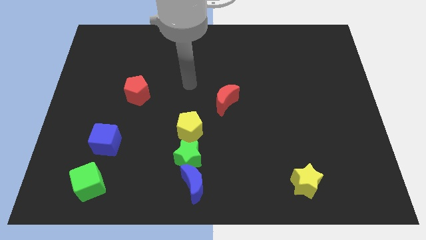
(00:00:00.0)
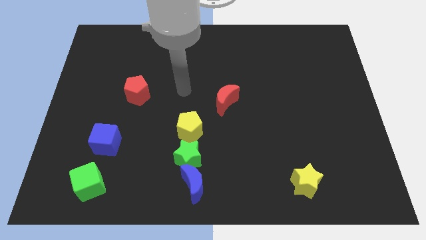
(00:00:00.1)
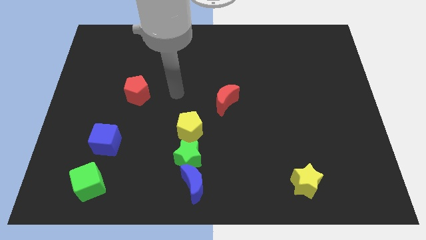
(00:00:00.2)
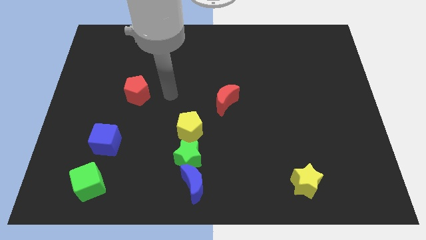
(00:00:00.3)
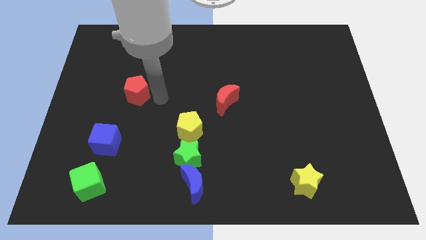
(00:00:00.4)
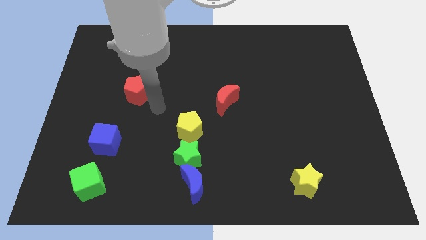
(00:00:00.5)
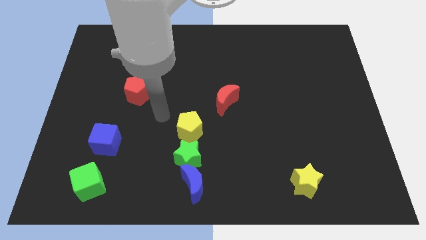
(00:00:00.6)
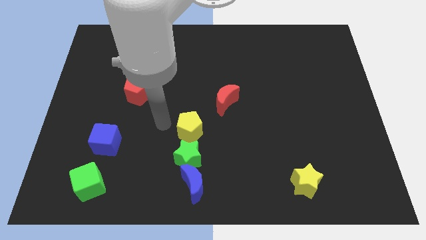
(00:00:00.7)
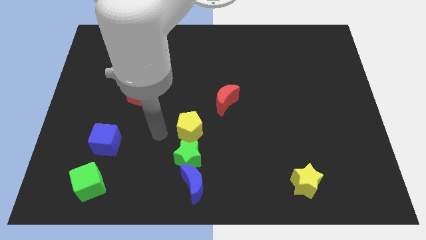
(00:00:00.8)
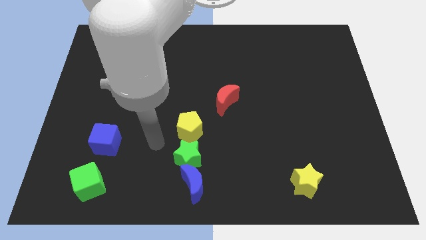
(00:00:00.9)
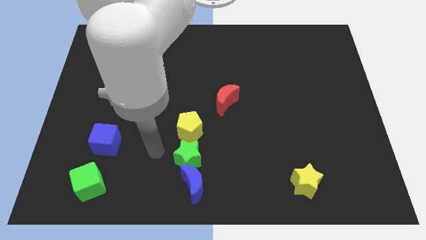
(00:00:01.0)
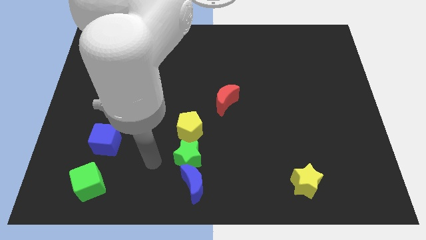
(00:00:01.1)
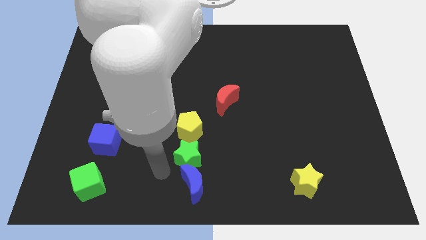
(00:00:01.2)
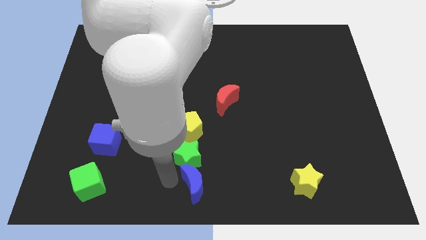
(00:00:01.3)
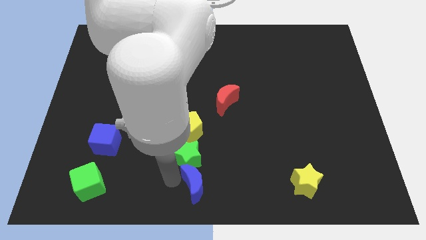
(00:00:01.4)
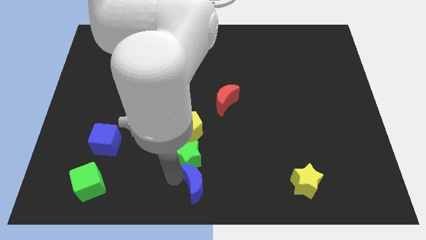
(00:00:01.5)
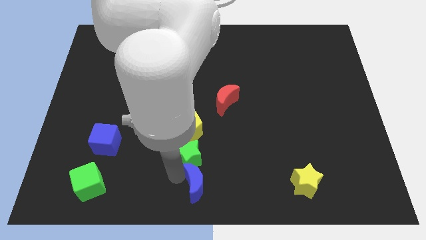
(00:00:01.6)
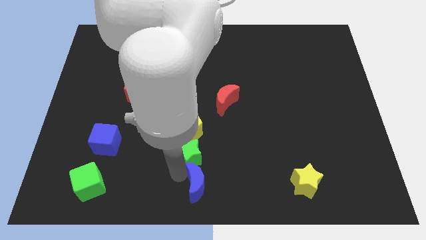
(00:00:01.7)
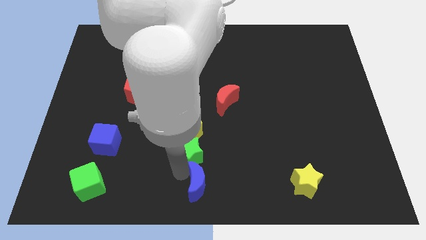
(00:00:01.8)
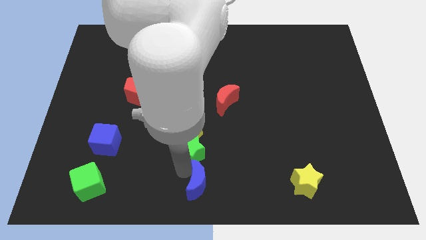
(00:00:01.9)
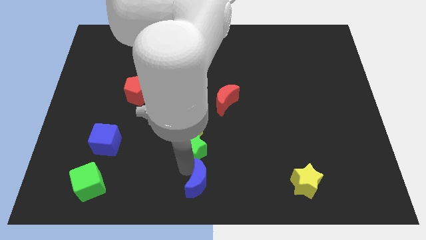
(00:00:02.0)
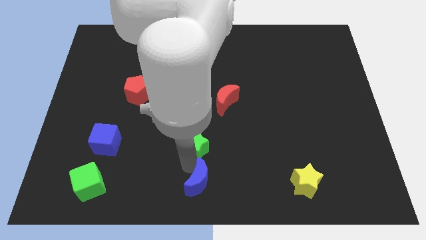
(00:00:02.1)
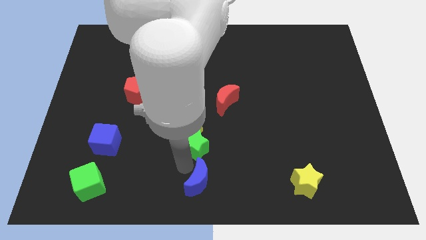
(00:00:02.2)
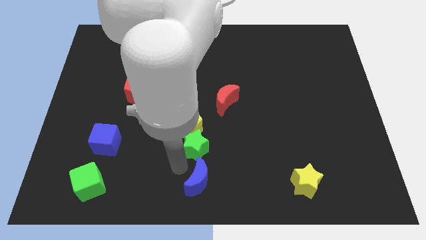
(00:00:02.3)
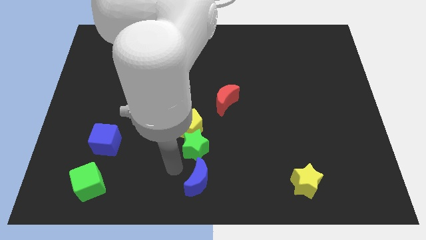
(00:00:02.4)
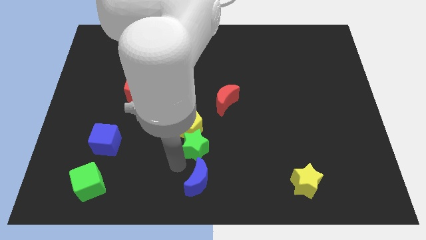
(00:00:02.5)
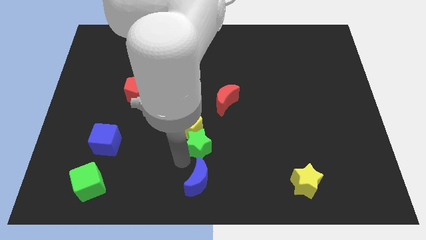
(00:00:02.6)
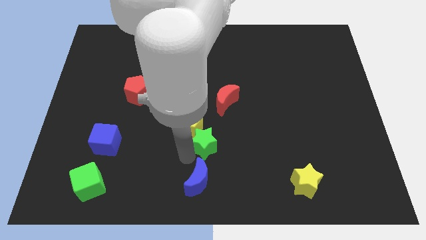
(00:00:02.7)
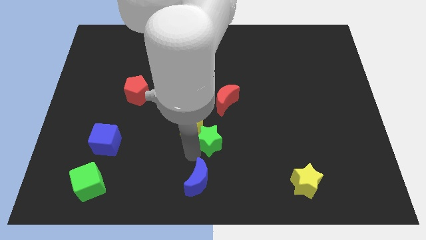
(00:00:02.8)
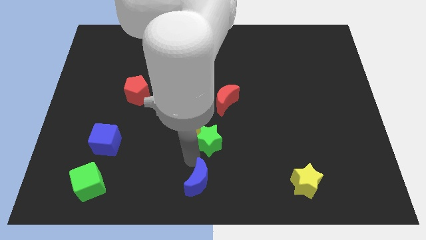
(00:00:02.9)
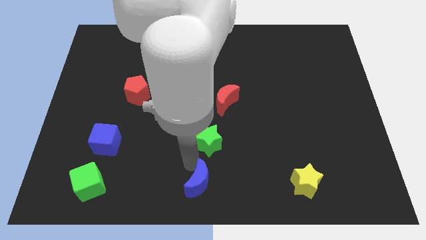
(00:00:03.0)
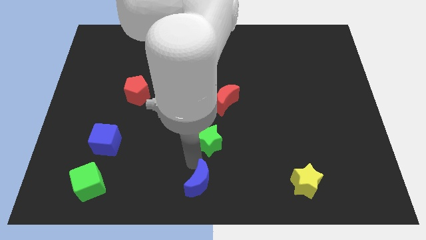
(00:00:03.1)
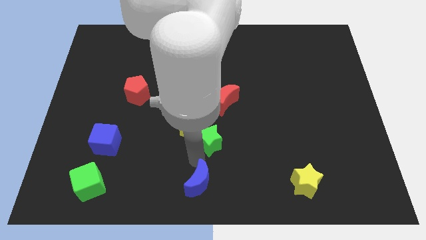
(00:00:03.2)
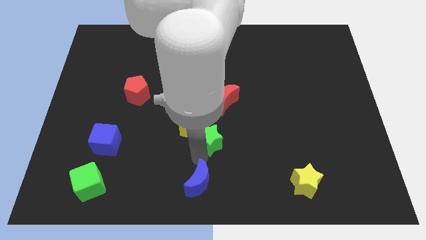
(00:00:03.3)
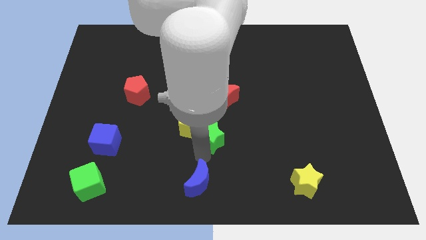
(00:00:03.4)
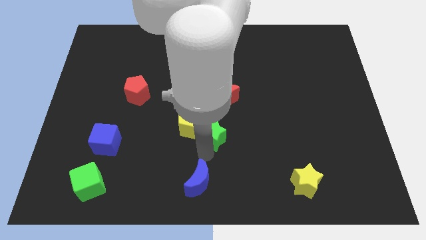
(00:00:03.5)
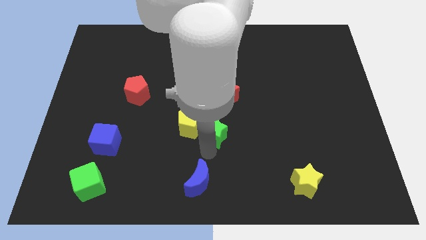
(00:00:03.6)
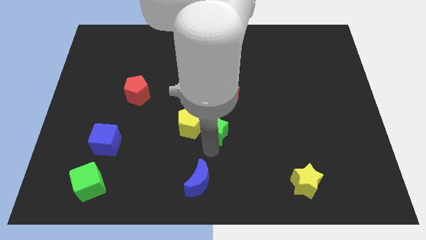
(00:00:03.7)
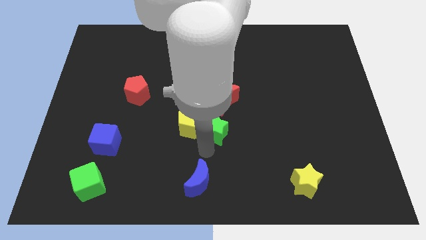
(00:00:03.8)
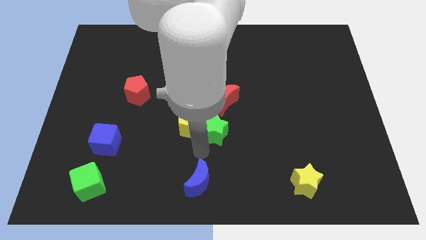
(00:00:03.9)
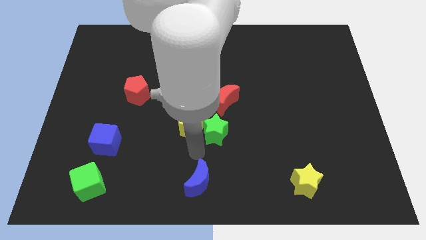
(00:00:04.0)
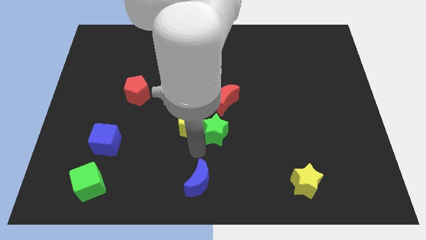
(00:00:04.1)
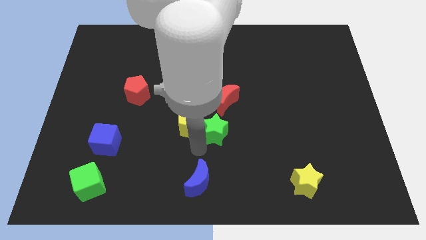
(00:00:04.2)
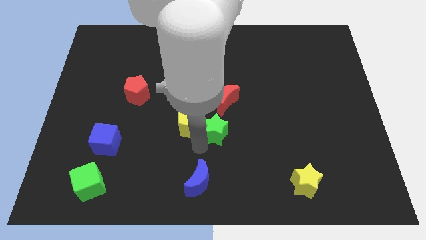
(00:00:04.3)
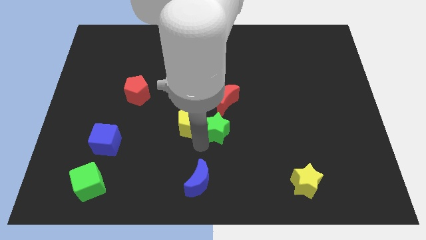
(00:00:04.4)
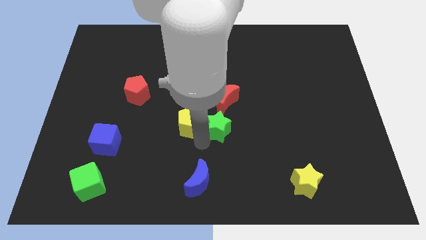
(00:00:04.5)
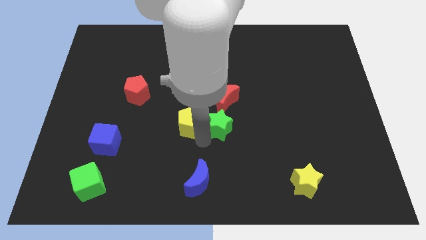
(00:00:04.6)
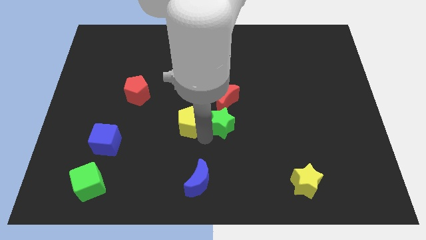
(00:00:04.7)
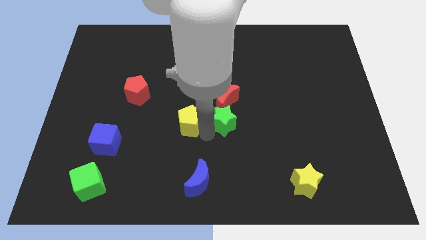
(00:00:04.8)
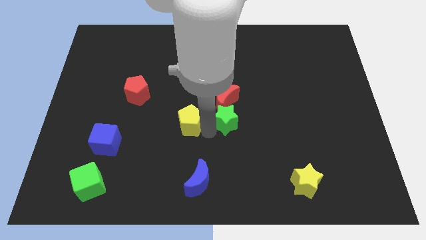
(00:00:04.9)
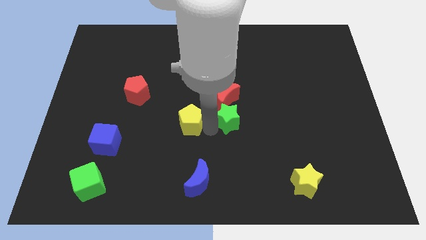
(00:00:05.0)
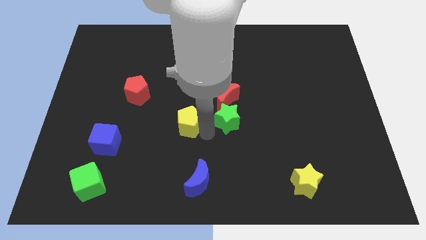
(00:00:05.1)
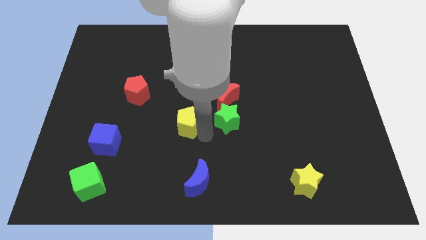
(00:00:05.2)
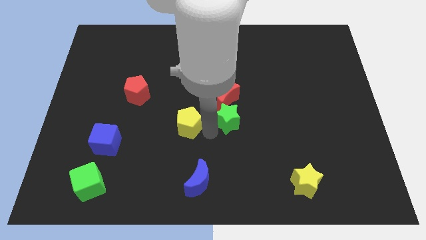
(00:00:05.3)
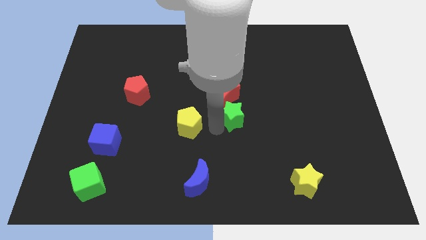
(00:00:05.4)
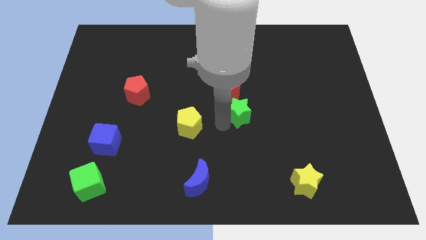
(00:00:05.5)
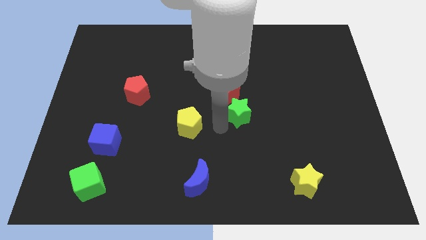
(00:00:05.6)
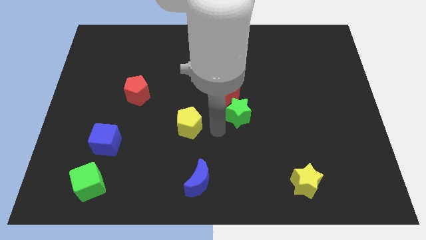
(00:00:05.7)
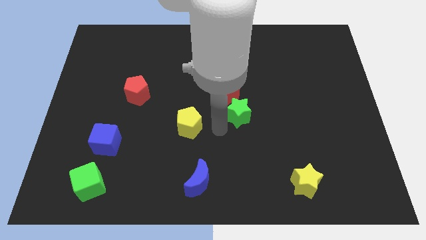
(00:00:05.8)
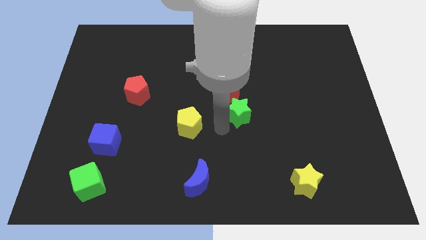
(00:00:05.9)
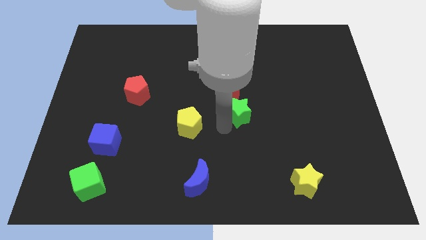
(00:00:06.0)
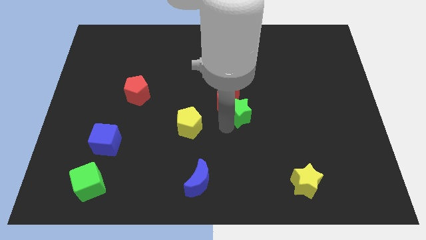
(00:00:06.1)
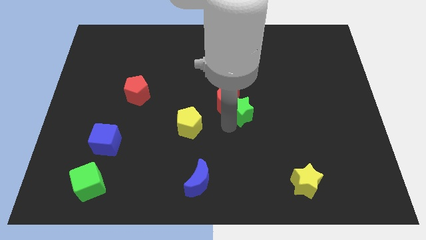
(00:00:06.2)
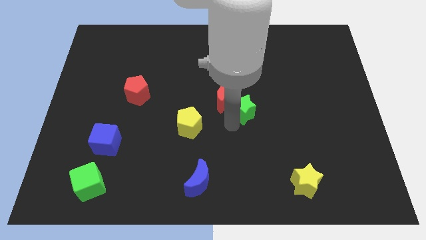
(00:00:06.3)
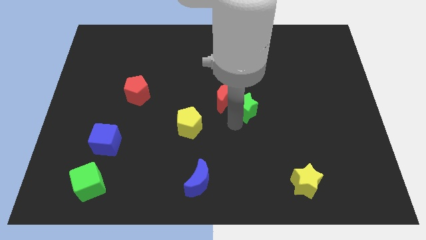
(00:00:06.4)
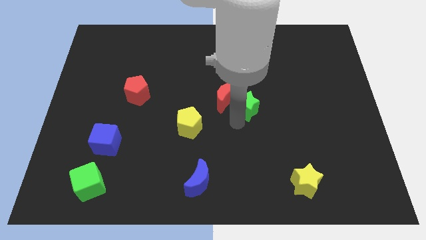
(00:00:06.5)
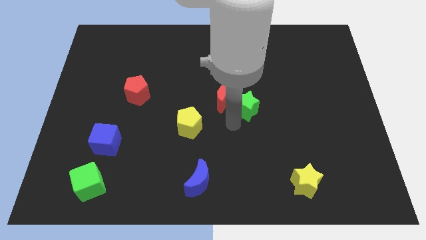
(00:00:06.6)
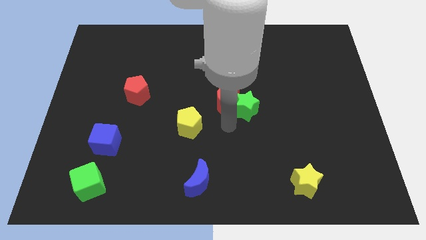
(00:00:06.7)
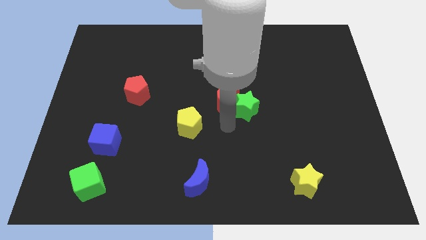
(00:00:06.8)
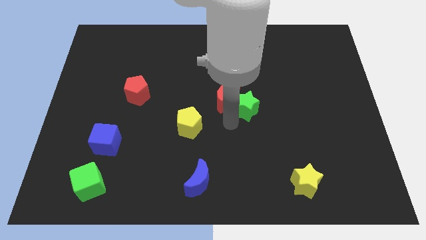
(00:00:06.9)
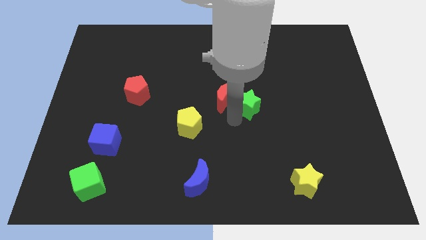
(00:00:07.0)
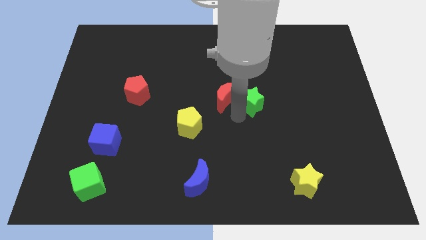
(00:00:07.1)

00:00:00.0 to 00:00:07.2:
slide the green star upwards and then to the right

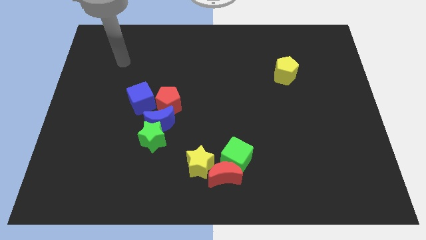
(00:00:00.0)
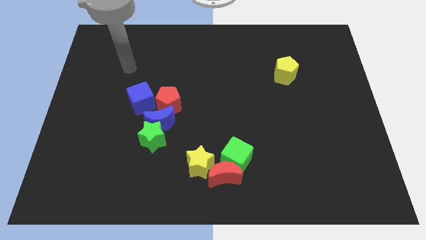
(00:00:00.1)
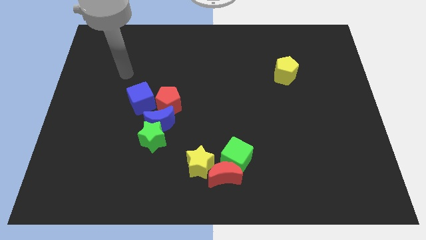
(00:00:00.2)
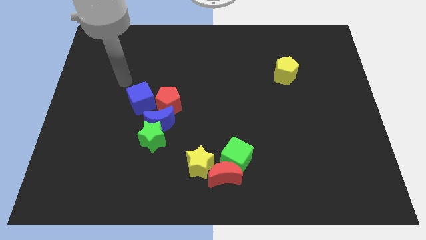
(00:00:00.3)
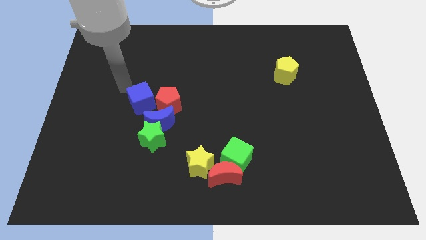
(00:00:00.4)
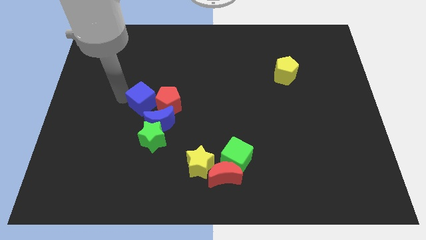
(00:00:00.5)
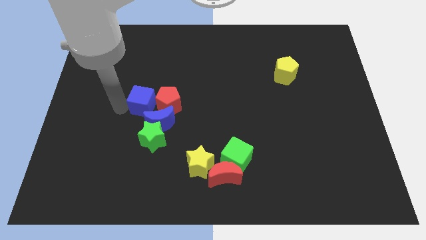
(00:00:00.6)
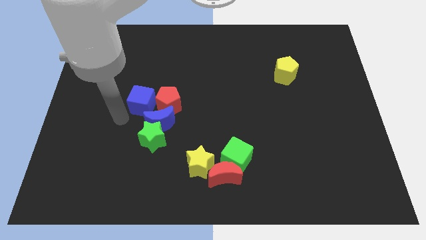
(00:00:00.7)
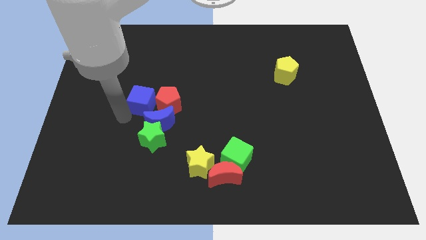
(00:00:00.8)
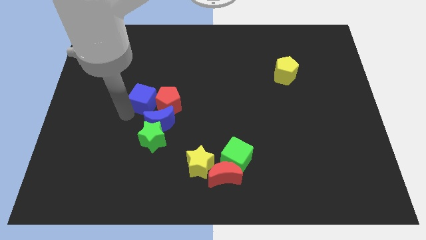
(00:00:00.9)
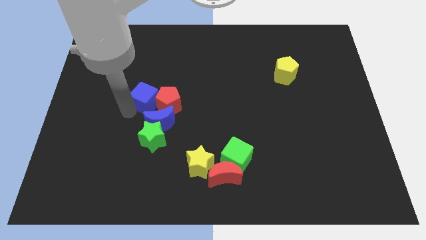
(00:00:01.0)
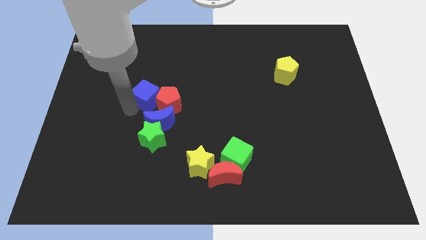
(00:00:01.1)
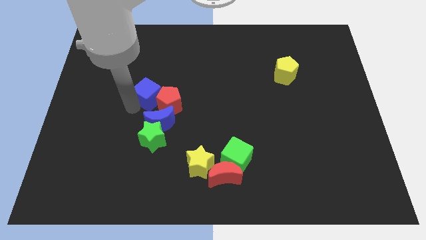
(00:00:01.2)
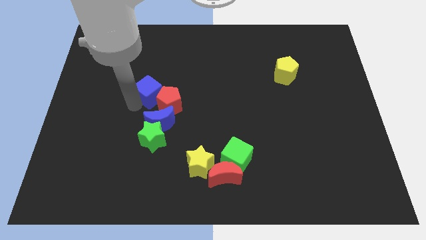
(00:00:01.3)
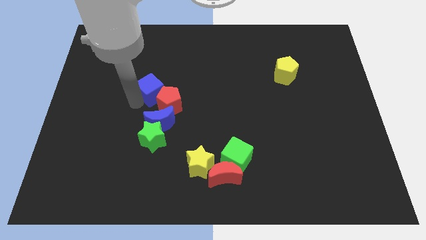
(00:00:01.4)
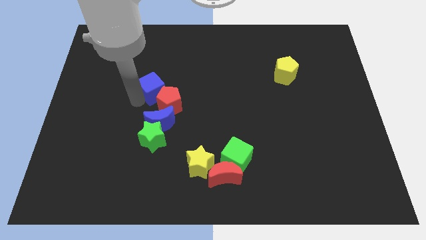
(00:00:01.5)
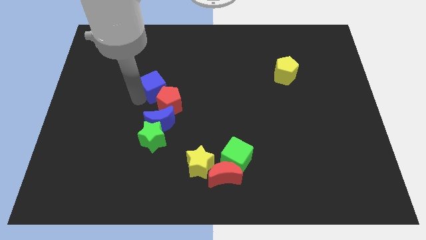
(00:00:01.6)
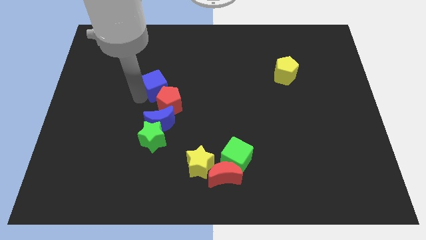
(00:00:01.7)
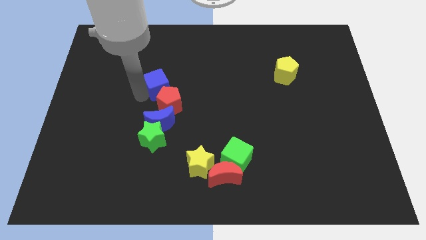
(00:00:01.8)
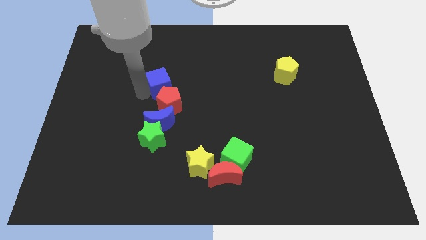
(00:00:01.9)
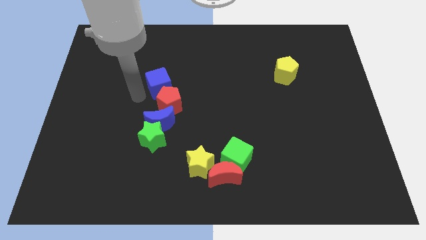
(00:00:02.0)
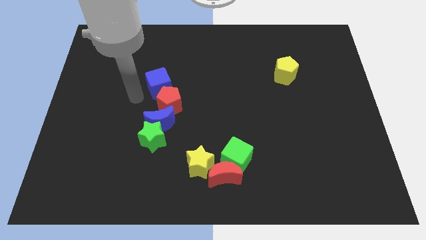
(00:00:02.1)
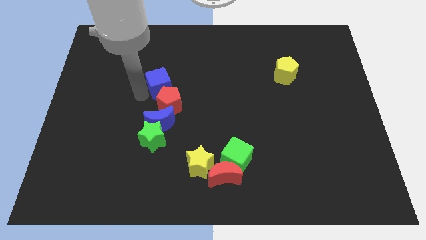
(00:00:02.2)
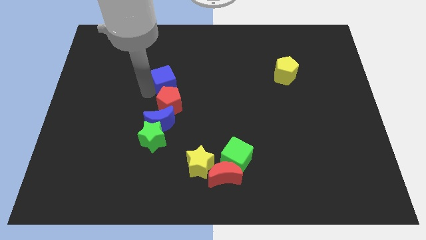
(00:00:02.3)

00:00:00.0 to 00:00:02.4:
slide the blue cube somewhat up and then to the right
